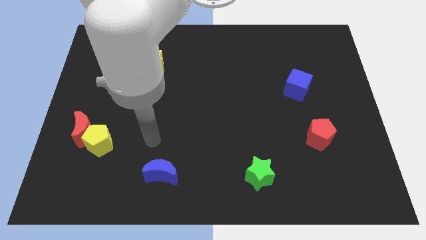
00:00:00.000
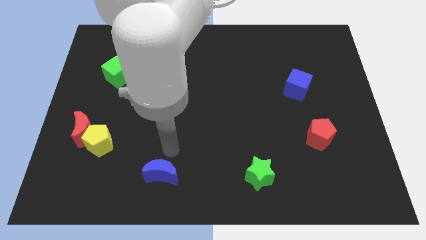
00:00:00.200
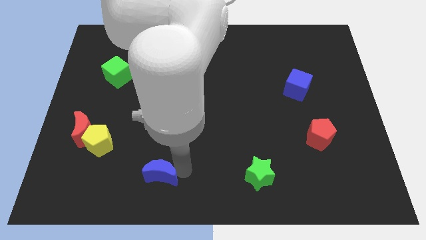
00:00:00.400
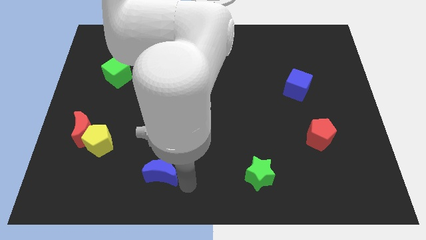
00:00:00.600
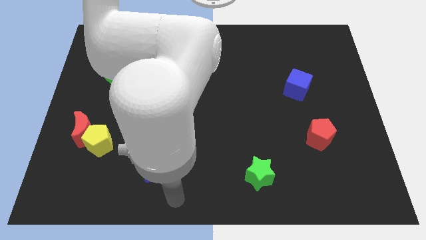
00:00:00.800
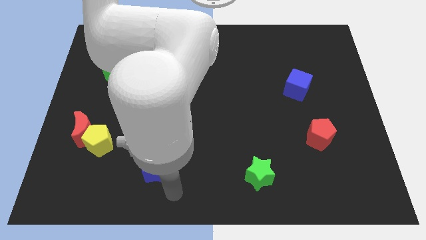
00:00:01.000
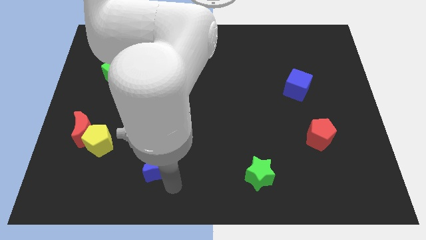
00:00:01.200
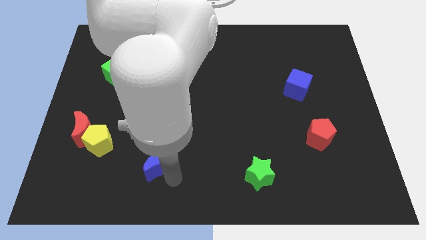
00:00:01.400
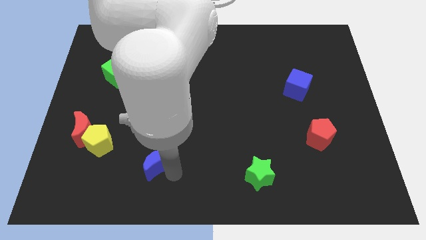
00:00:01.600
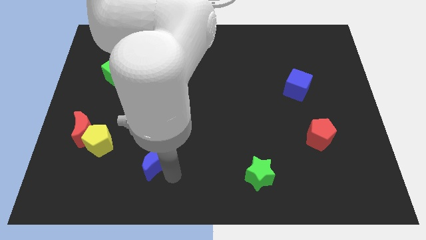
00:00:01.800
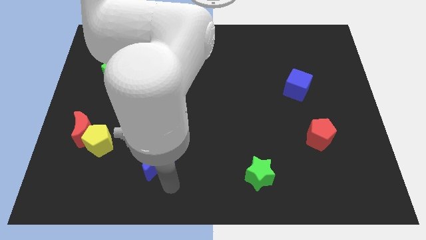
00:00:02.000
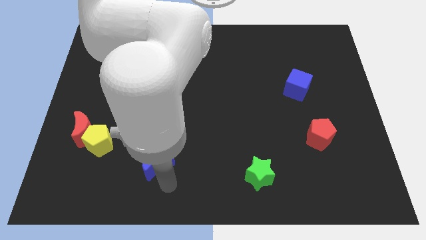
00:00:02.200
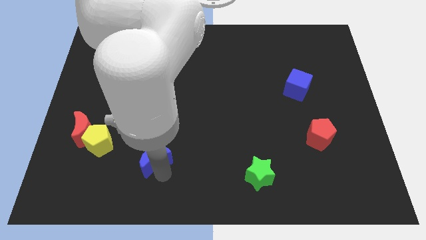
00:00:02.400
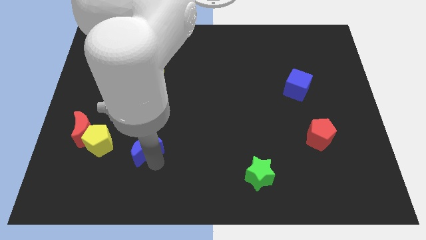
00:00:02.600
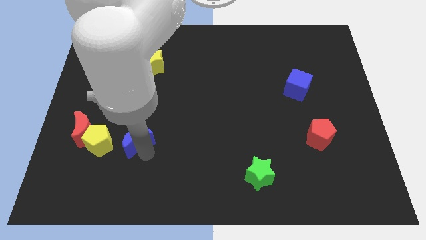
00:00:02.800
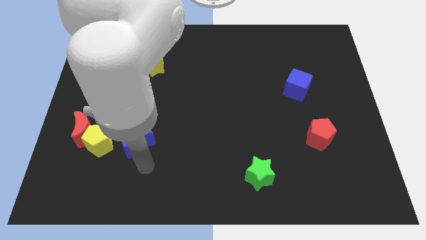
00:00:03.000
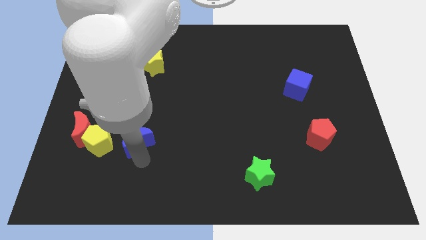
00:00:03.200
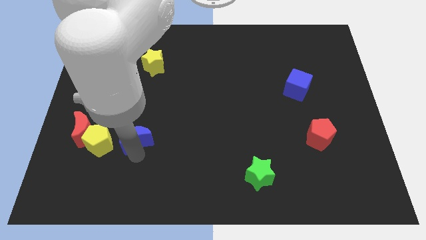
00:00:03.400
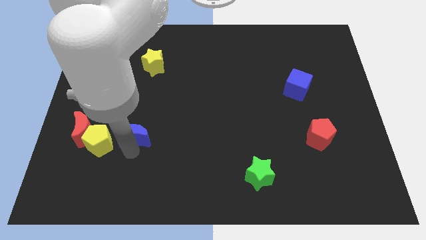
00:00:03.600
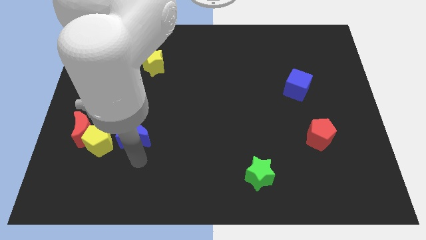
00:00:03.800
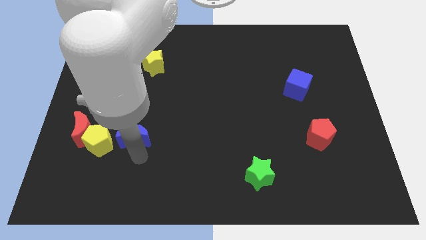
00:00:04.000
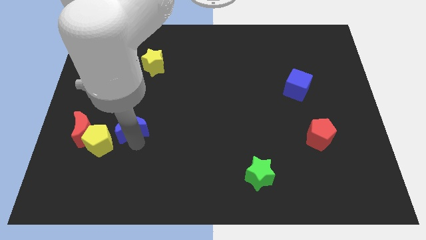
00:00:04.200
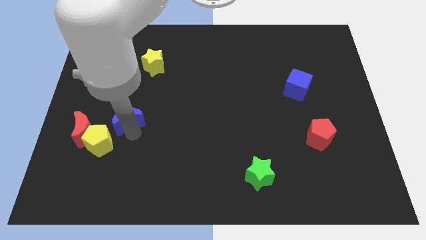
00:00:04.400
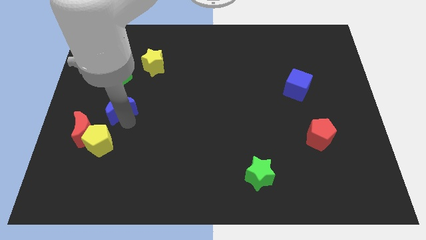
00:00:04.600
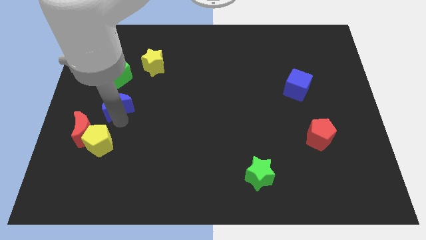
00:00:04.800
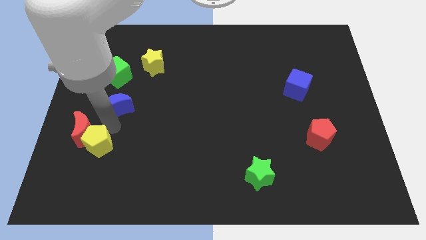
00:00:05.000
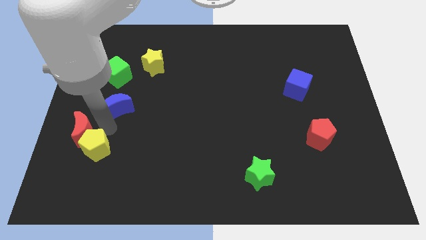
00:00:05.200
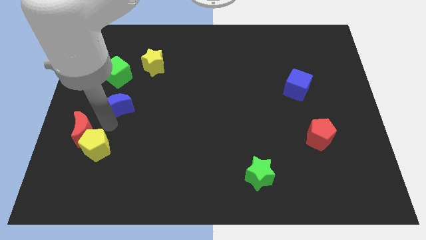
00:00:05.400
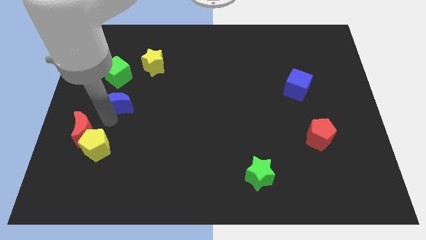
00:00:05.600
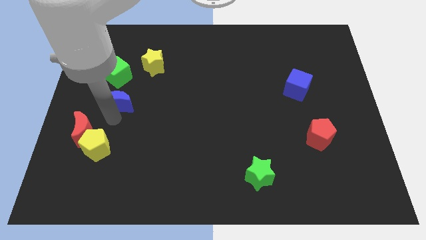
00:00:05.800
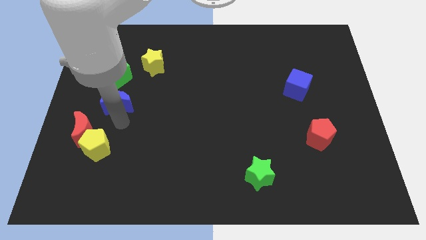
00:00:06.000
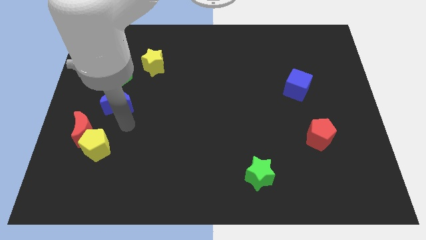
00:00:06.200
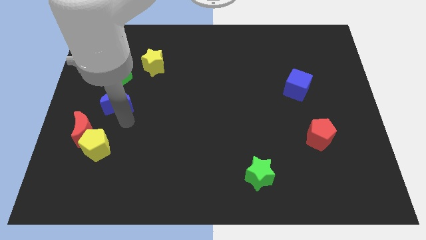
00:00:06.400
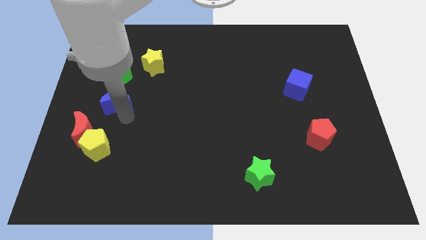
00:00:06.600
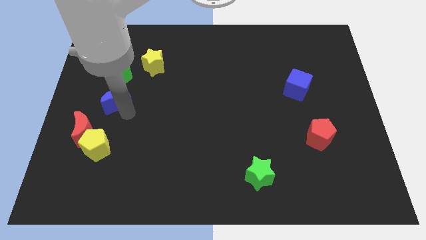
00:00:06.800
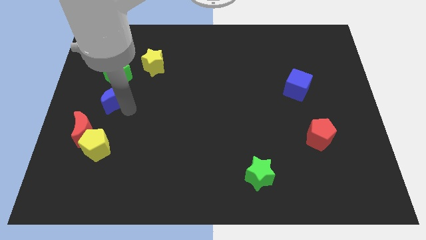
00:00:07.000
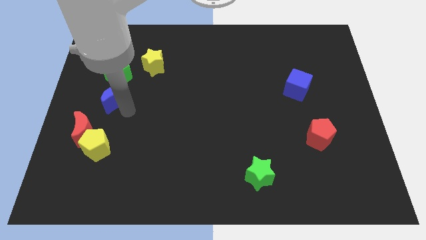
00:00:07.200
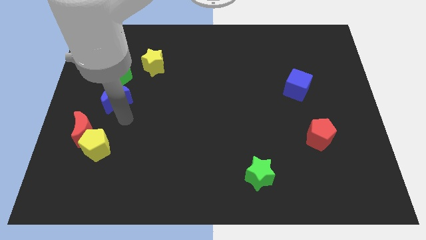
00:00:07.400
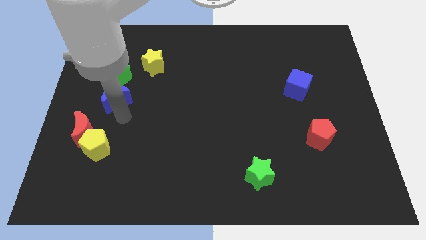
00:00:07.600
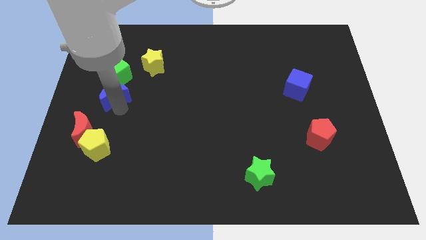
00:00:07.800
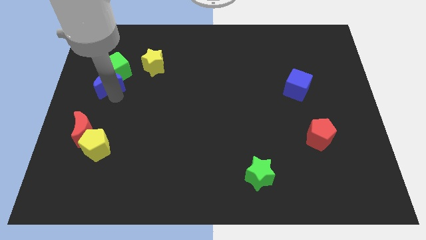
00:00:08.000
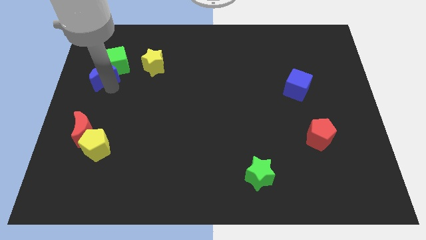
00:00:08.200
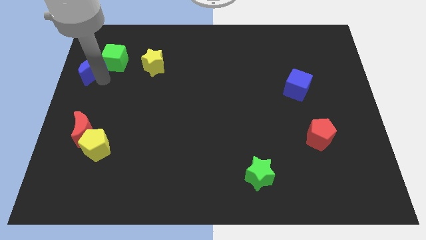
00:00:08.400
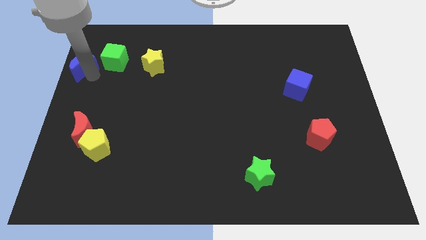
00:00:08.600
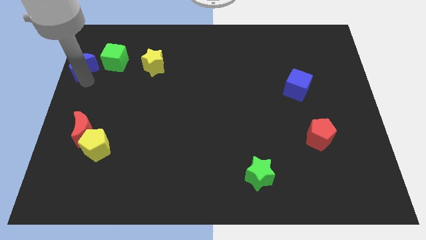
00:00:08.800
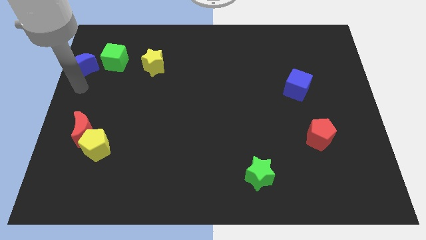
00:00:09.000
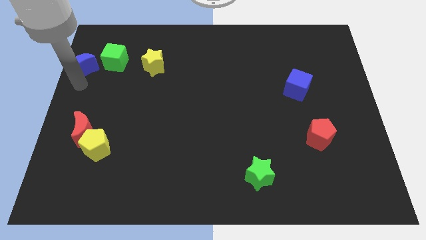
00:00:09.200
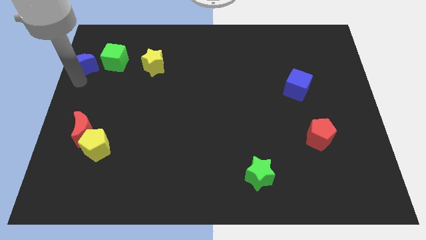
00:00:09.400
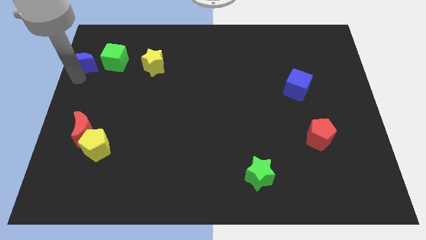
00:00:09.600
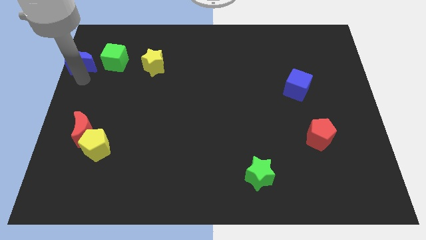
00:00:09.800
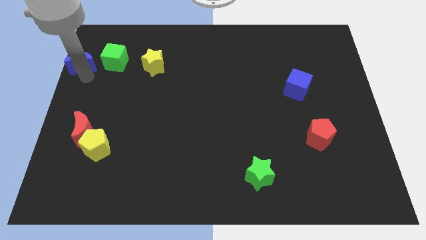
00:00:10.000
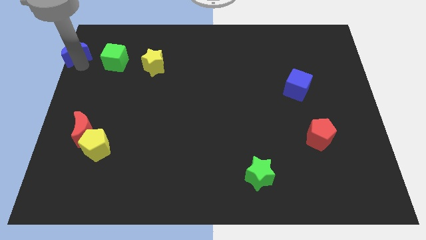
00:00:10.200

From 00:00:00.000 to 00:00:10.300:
push the blue moon to the top left of the board

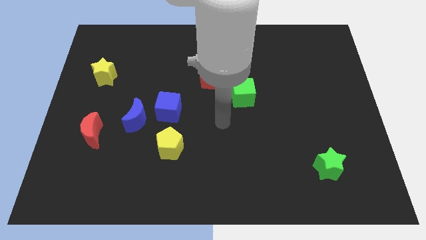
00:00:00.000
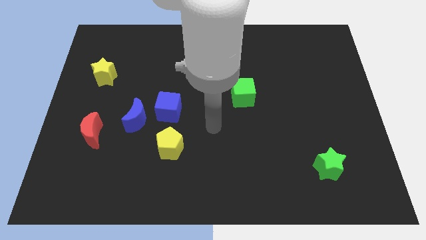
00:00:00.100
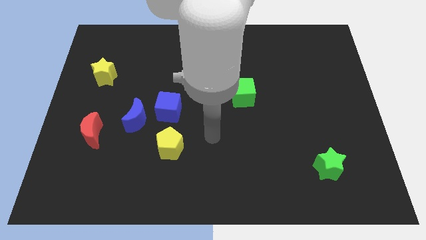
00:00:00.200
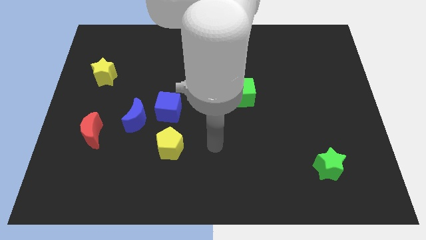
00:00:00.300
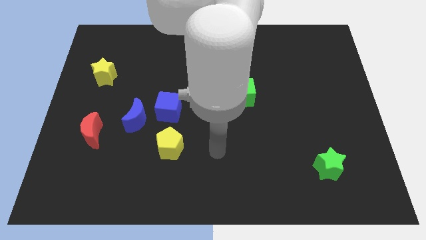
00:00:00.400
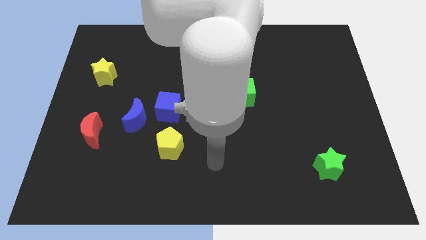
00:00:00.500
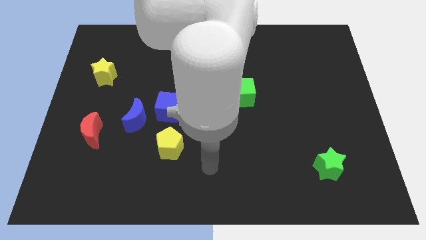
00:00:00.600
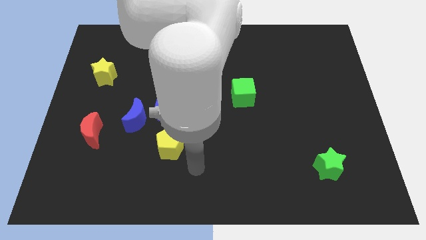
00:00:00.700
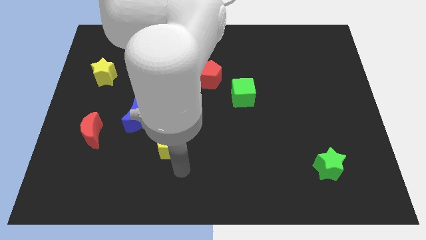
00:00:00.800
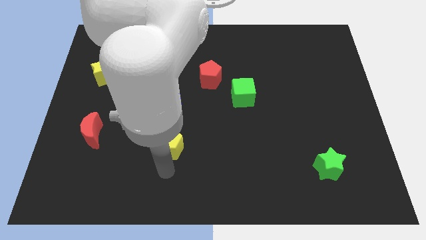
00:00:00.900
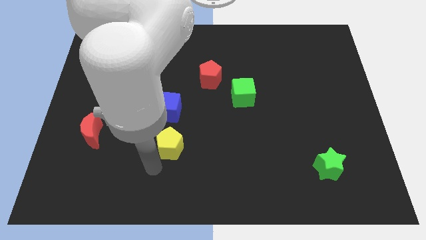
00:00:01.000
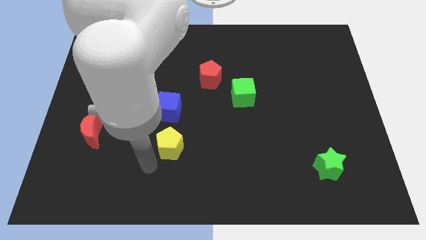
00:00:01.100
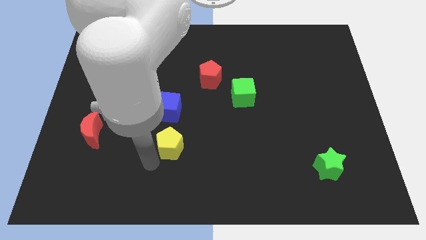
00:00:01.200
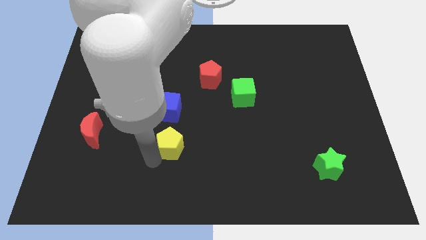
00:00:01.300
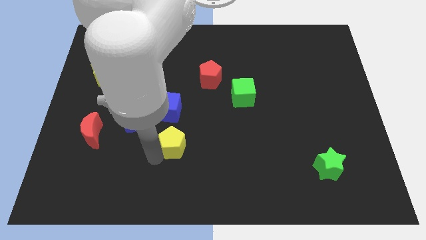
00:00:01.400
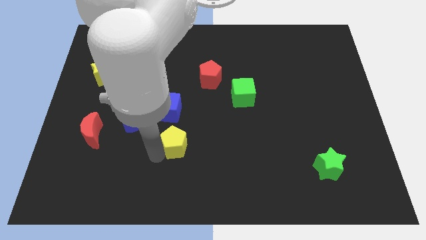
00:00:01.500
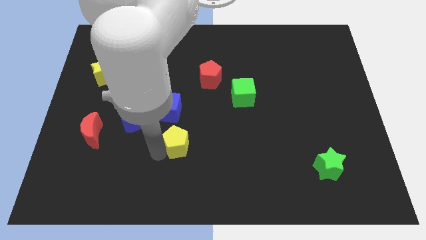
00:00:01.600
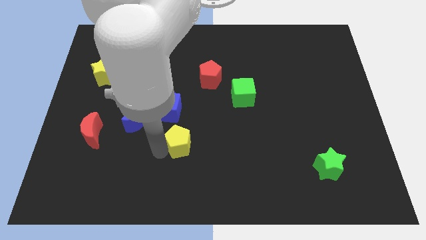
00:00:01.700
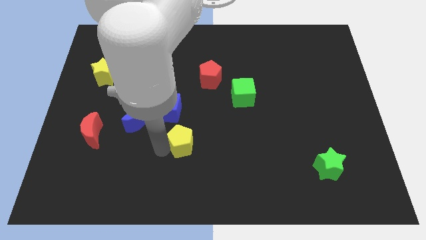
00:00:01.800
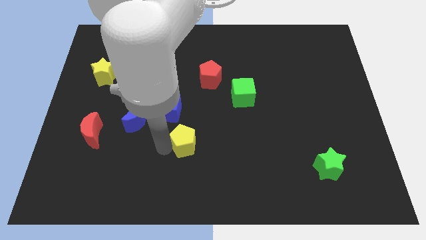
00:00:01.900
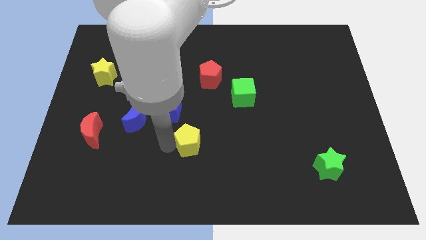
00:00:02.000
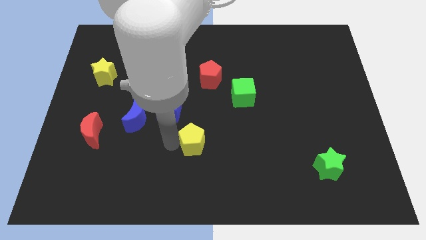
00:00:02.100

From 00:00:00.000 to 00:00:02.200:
put the yellow pentagon to the middle of the board
